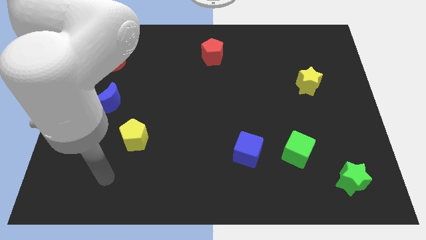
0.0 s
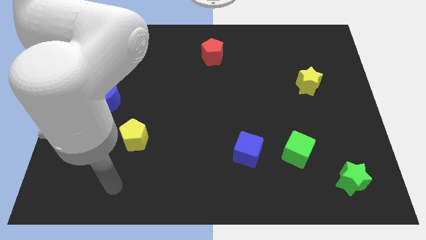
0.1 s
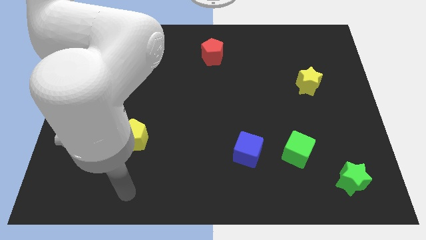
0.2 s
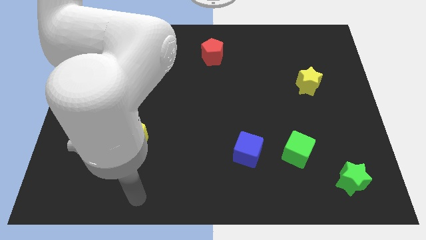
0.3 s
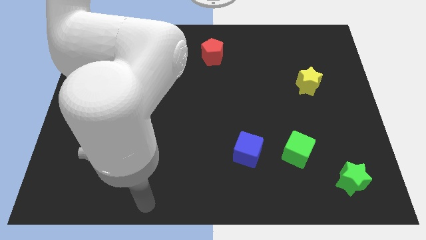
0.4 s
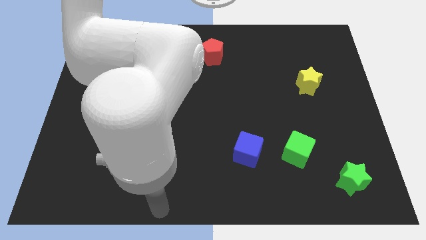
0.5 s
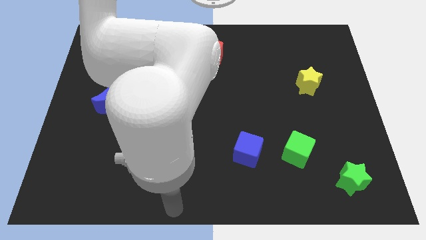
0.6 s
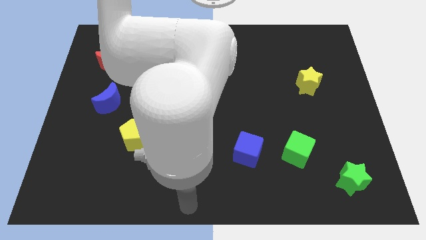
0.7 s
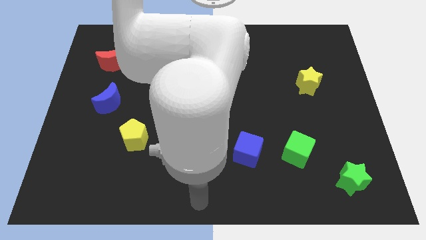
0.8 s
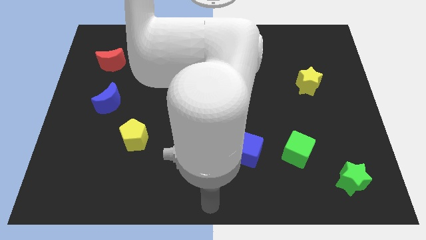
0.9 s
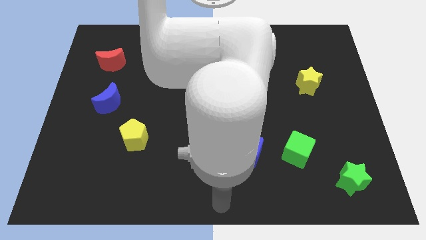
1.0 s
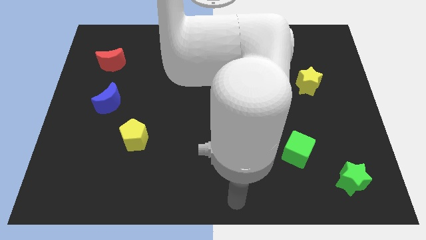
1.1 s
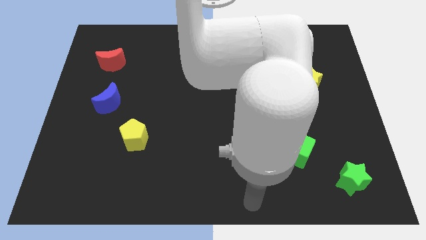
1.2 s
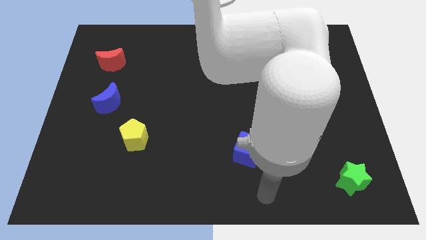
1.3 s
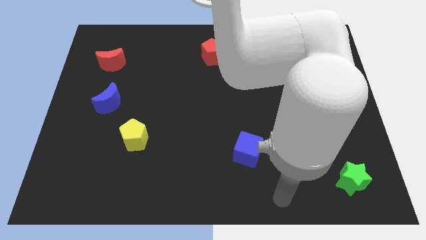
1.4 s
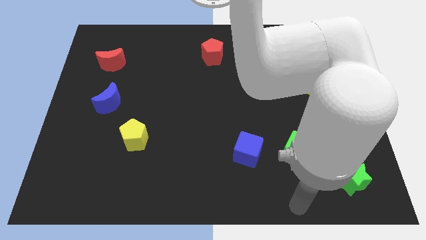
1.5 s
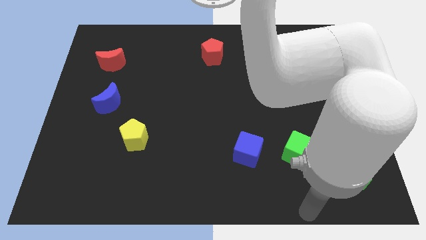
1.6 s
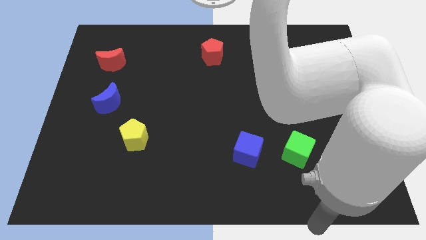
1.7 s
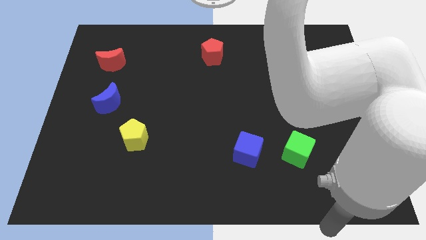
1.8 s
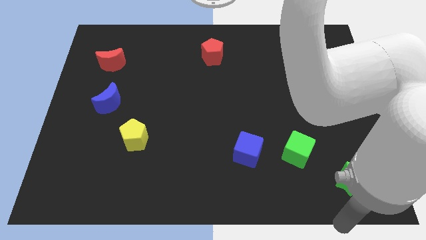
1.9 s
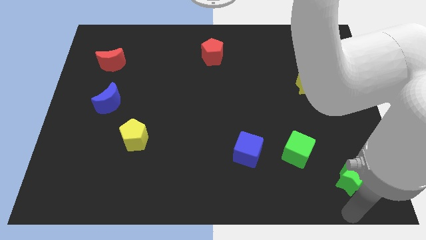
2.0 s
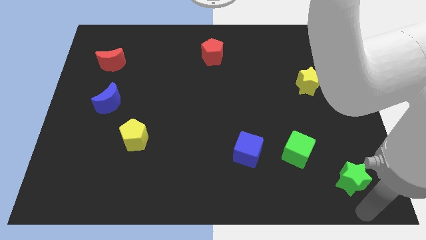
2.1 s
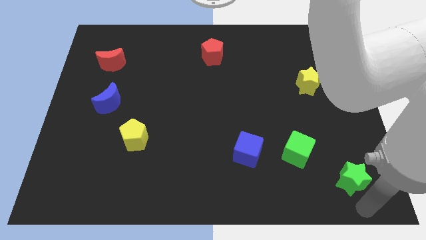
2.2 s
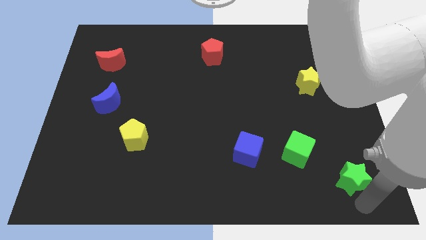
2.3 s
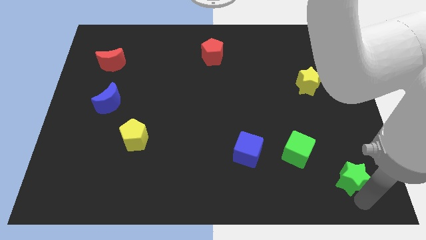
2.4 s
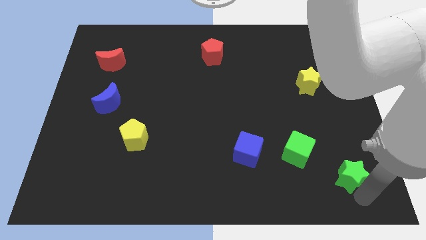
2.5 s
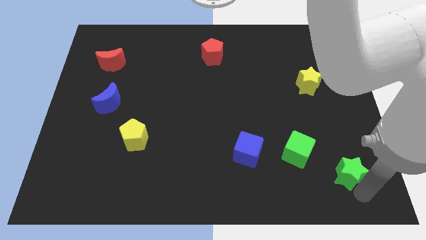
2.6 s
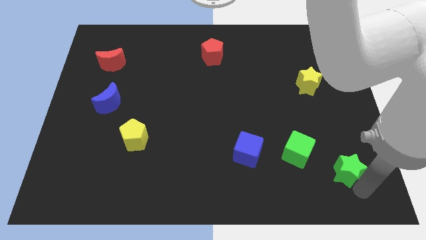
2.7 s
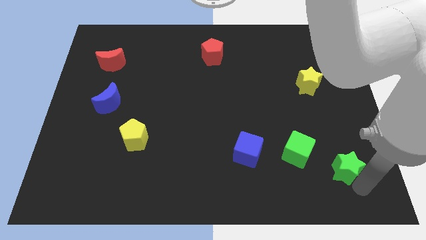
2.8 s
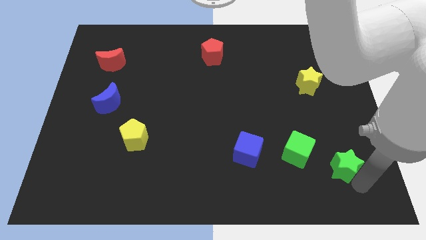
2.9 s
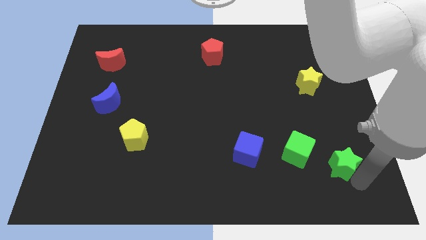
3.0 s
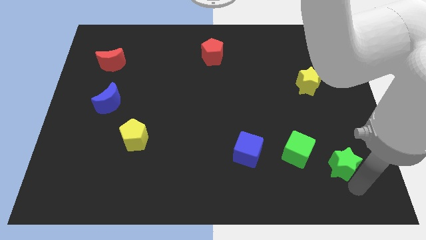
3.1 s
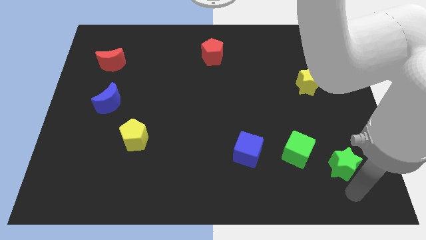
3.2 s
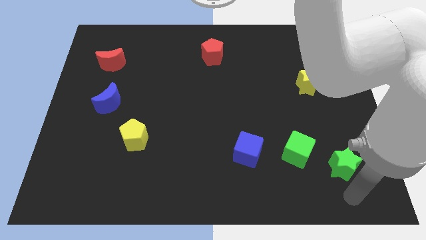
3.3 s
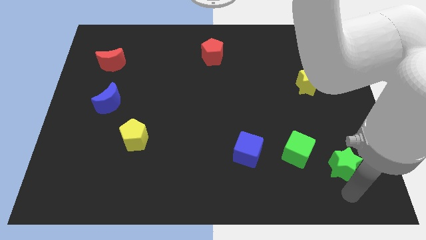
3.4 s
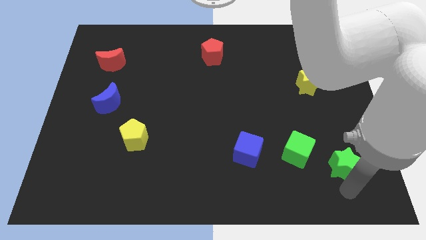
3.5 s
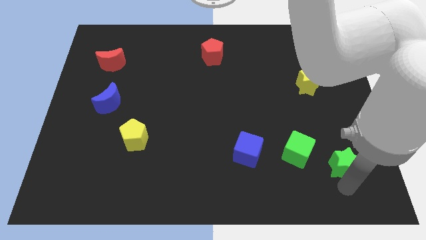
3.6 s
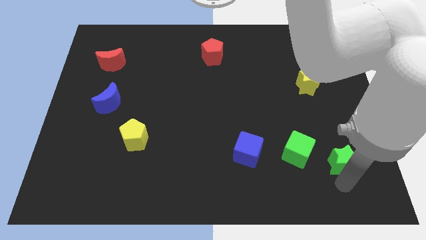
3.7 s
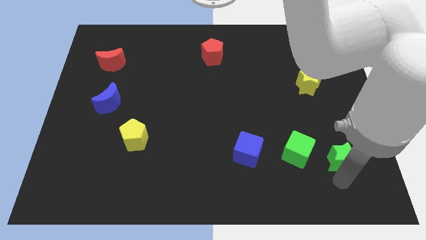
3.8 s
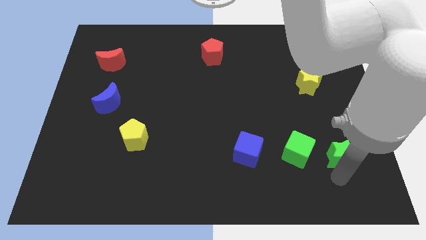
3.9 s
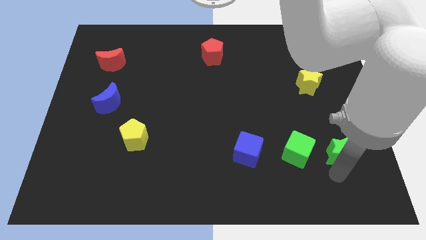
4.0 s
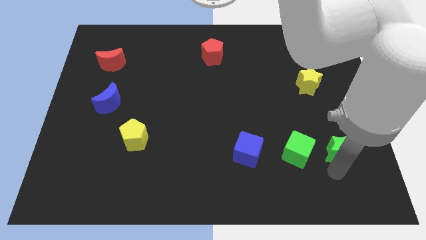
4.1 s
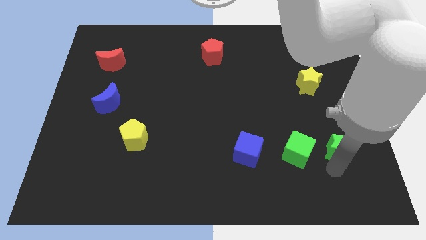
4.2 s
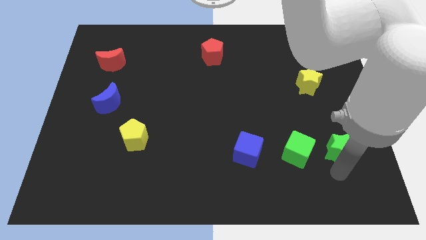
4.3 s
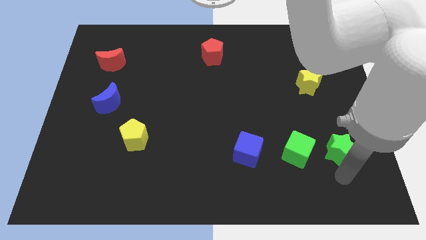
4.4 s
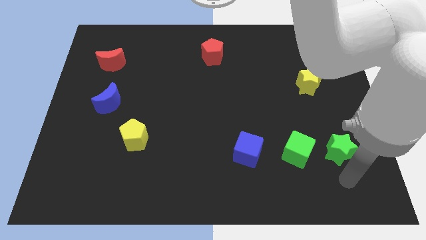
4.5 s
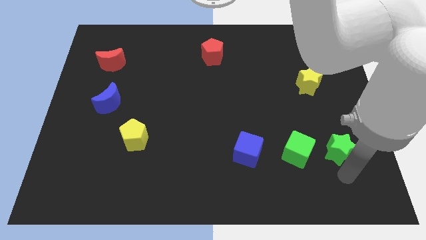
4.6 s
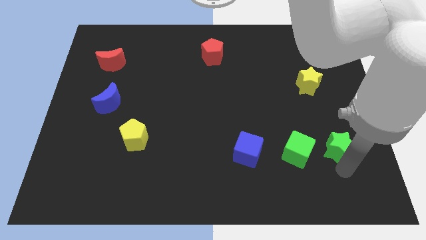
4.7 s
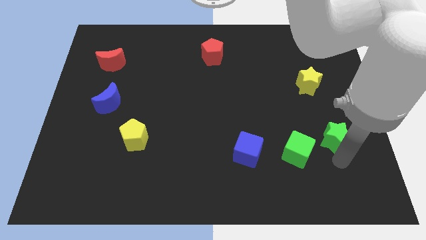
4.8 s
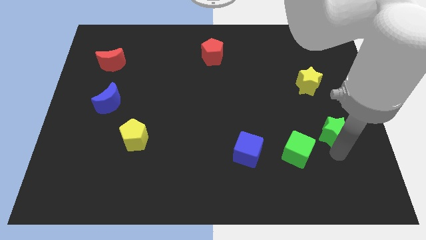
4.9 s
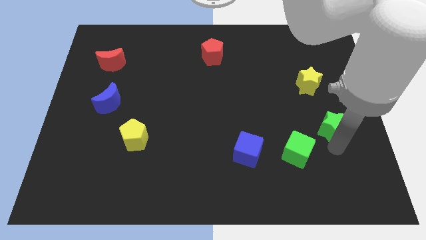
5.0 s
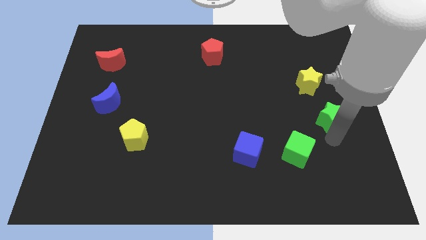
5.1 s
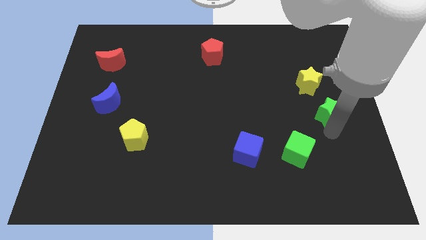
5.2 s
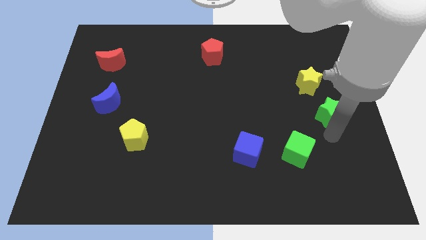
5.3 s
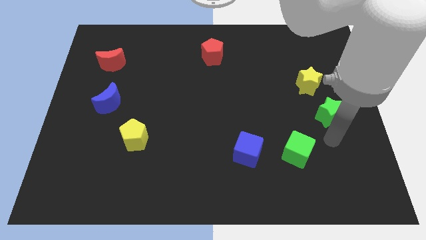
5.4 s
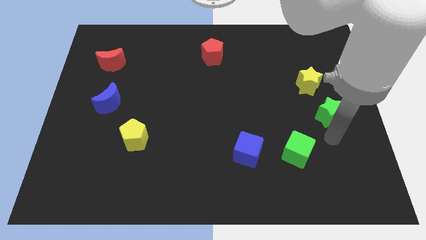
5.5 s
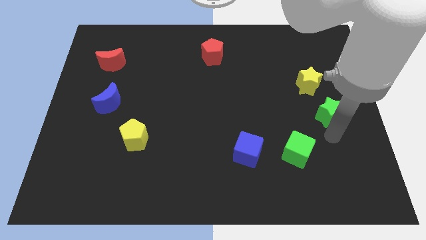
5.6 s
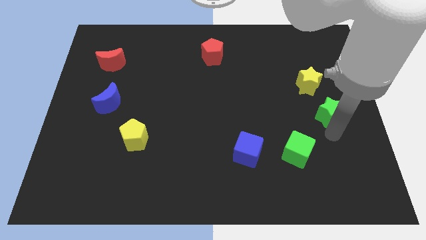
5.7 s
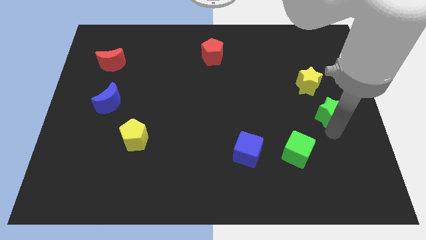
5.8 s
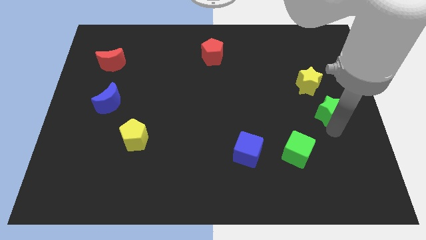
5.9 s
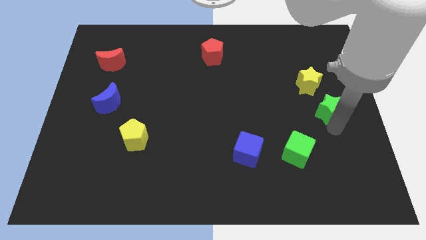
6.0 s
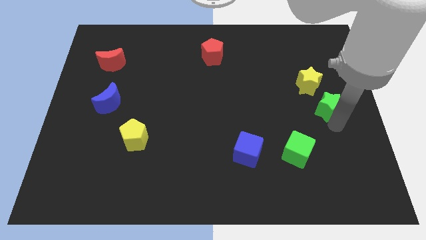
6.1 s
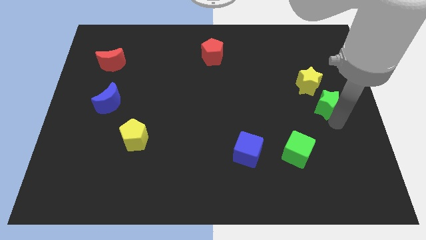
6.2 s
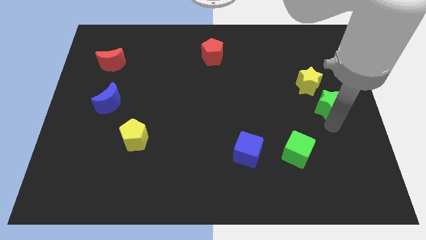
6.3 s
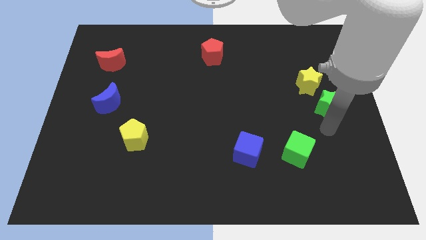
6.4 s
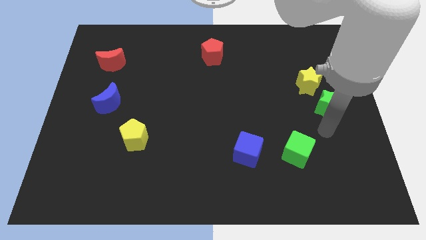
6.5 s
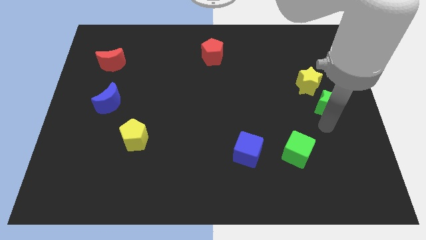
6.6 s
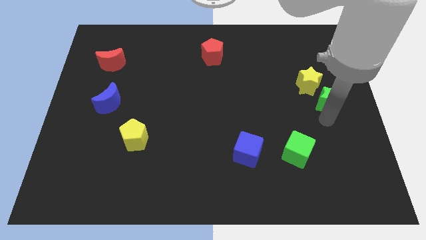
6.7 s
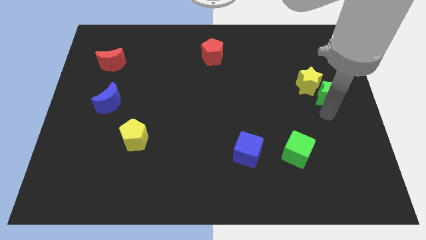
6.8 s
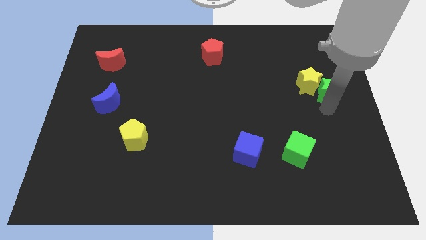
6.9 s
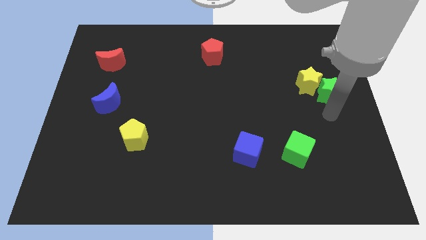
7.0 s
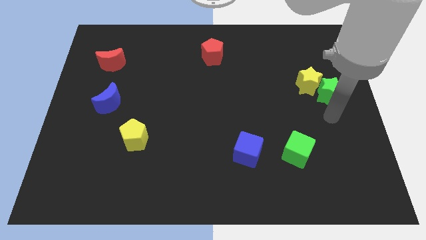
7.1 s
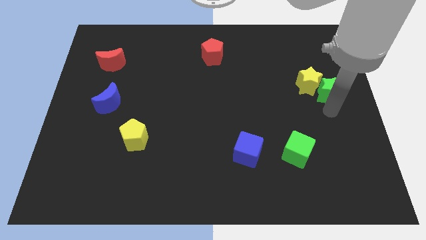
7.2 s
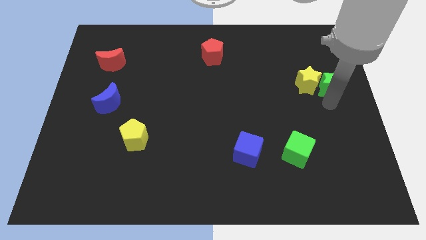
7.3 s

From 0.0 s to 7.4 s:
push the green star to the top right of the yellow star
